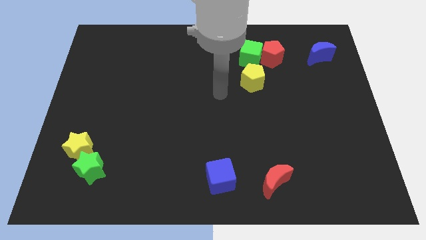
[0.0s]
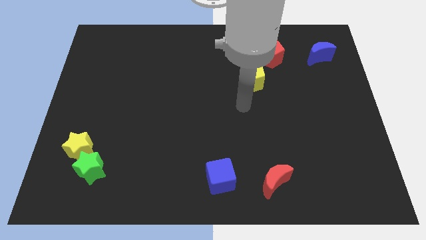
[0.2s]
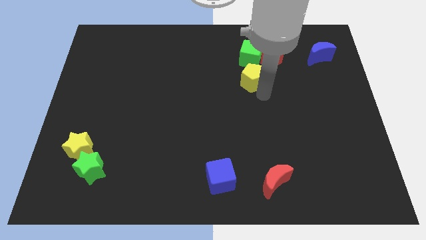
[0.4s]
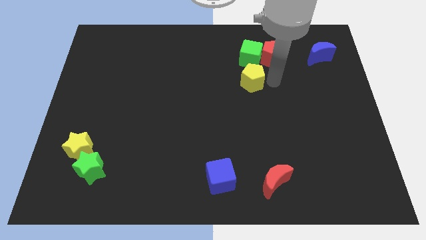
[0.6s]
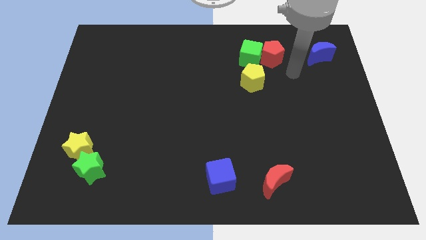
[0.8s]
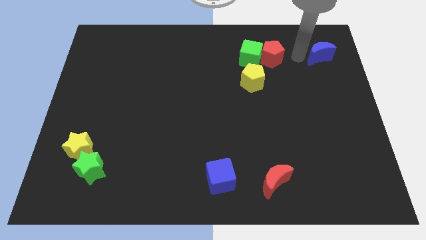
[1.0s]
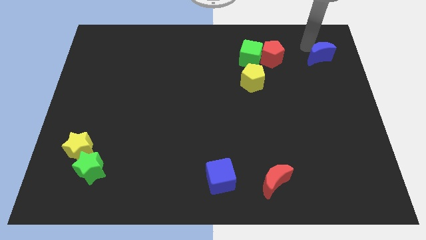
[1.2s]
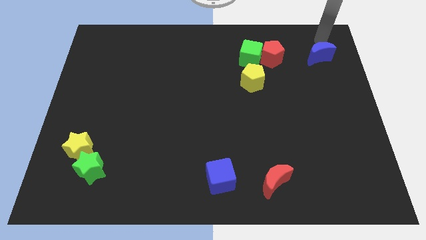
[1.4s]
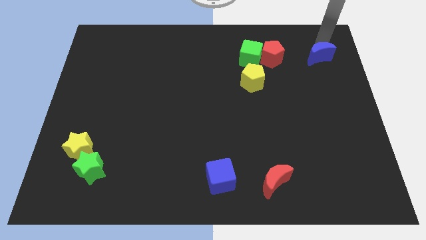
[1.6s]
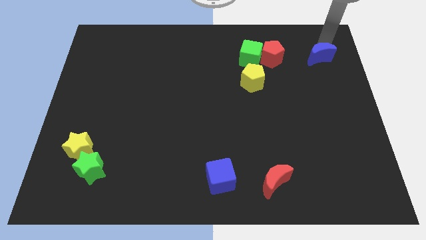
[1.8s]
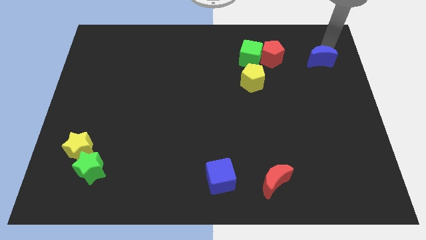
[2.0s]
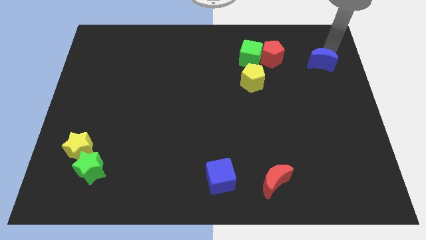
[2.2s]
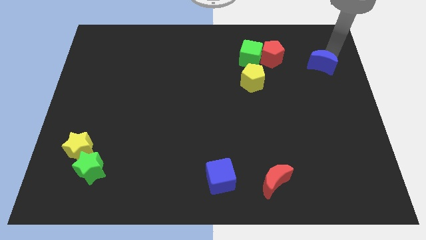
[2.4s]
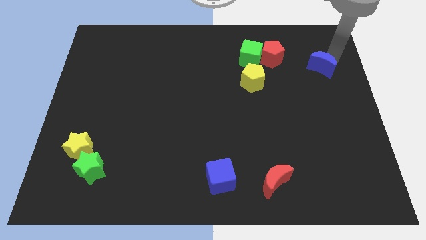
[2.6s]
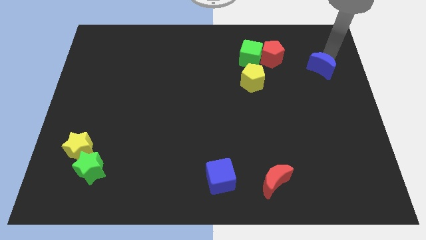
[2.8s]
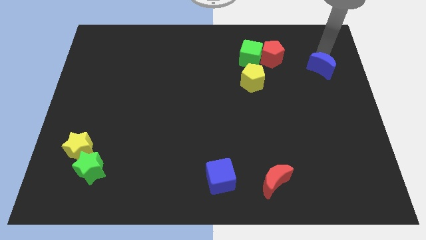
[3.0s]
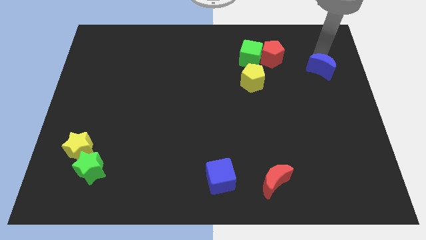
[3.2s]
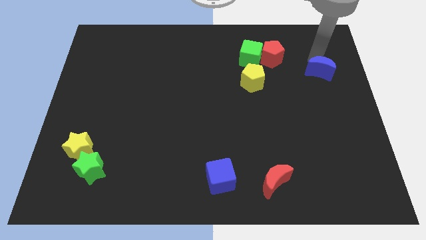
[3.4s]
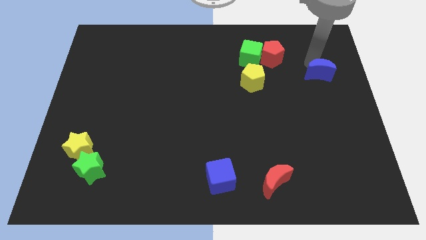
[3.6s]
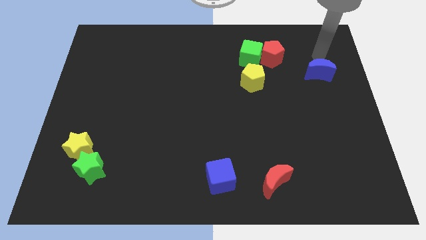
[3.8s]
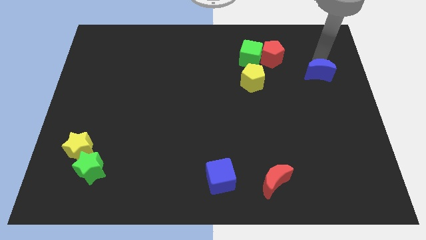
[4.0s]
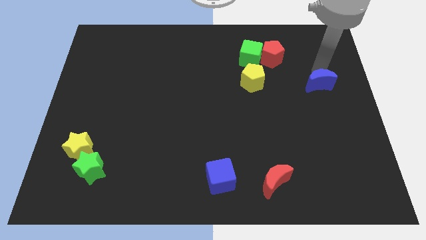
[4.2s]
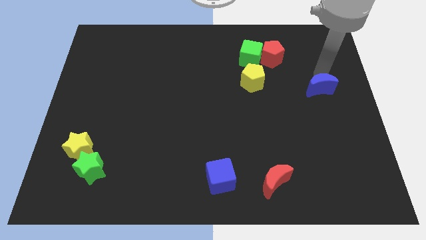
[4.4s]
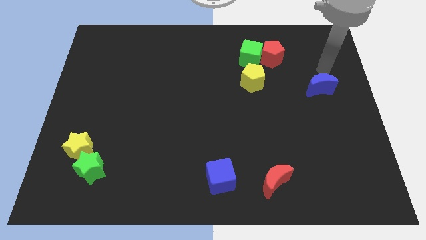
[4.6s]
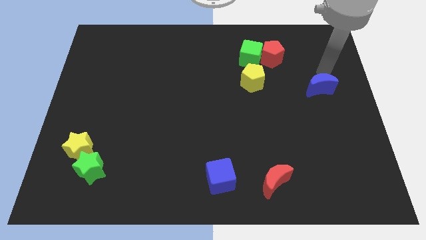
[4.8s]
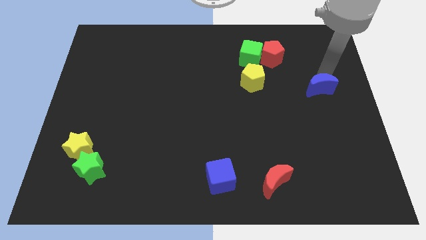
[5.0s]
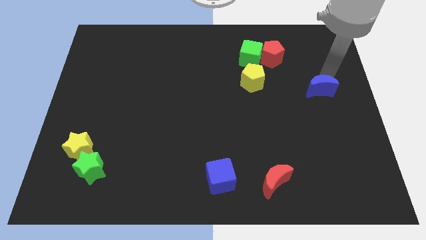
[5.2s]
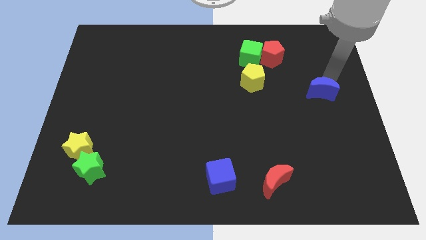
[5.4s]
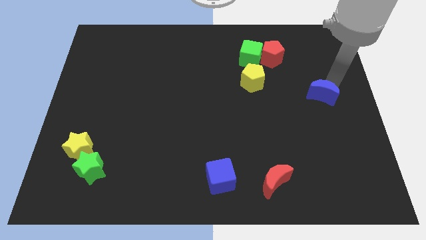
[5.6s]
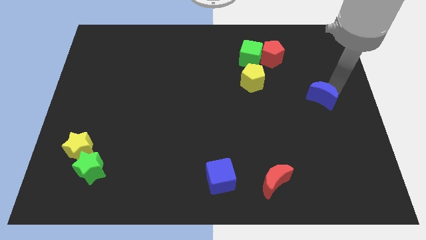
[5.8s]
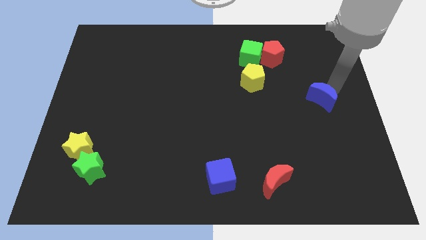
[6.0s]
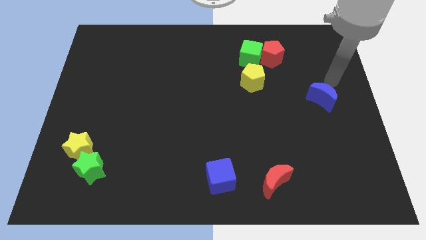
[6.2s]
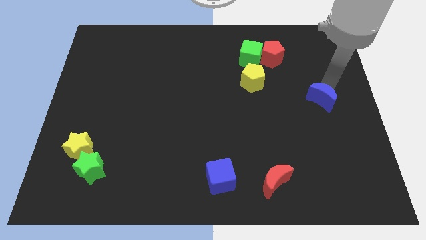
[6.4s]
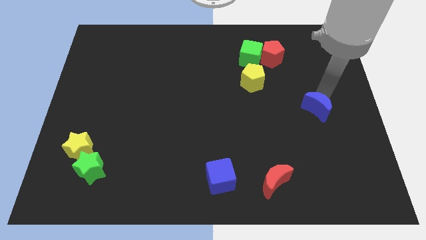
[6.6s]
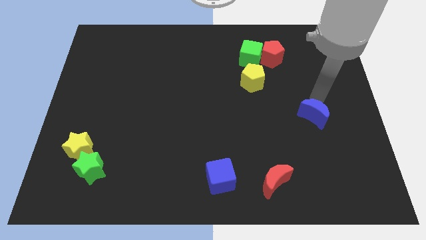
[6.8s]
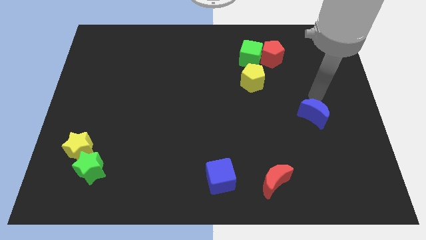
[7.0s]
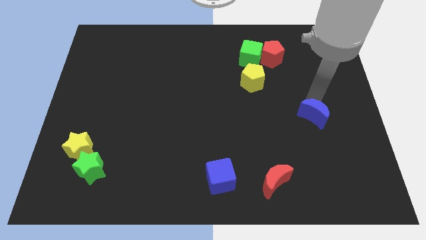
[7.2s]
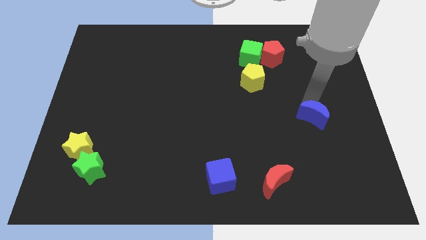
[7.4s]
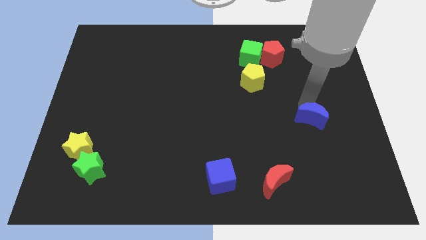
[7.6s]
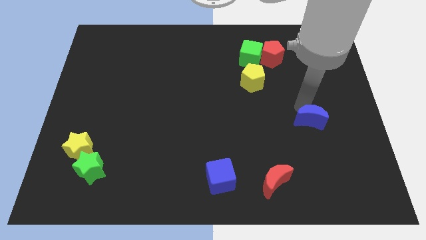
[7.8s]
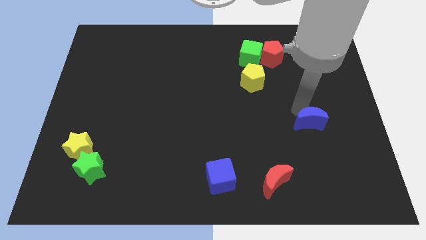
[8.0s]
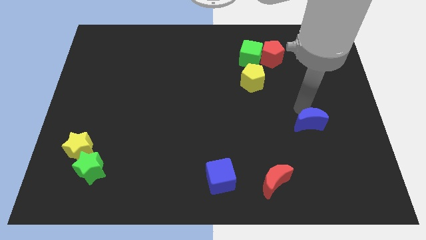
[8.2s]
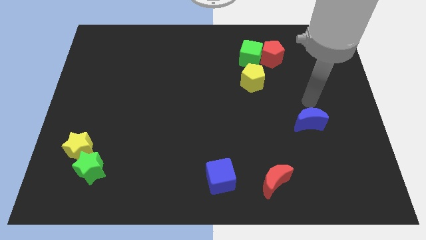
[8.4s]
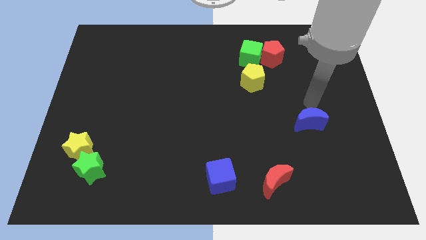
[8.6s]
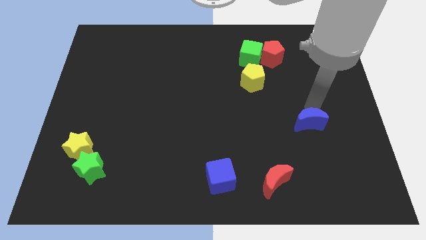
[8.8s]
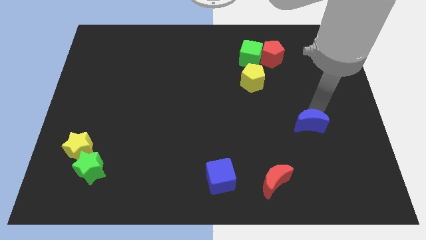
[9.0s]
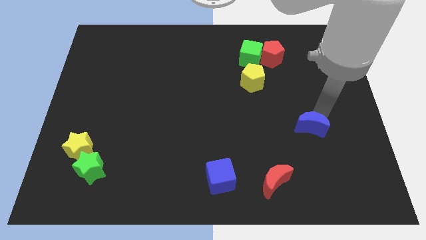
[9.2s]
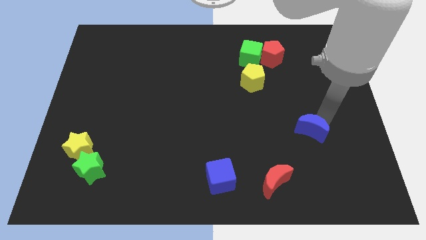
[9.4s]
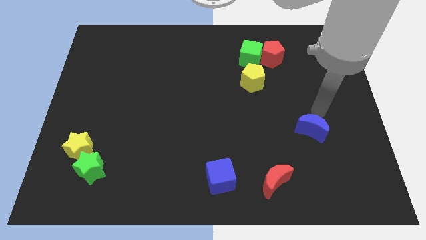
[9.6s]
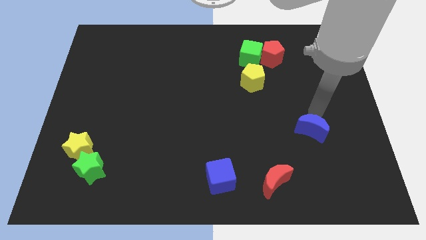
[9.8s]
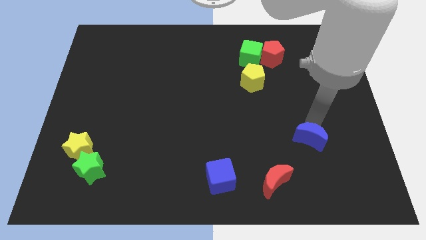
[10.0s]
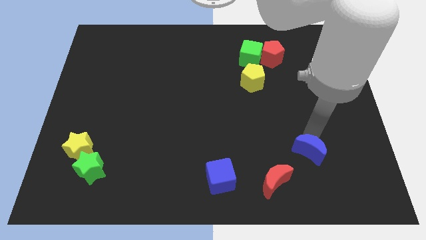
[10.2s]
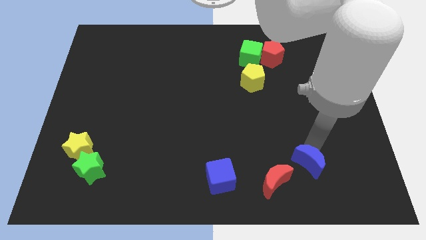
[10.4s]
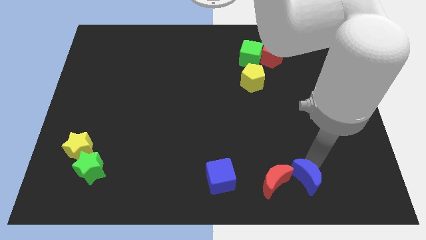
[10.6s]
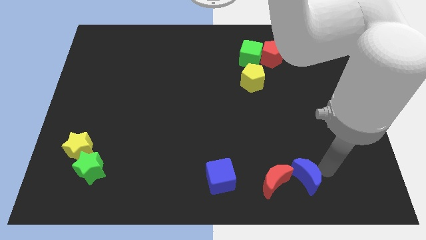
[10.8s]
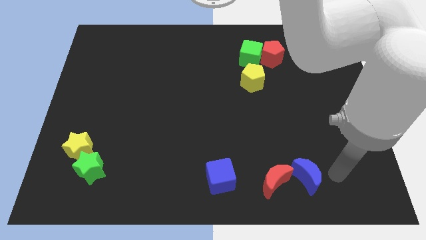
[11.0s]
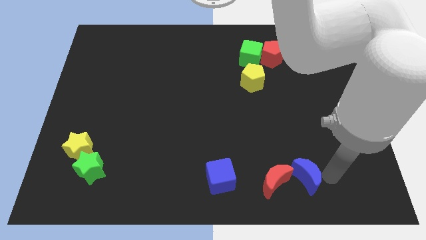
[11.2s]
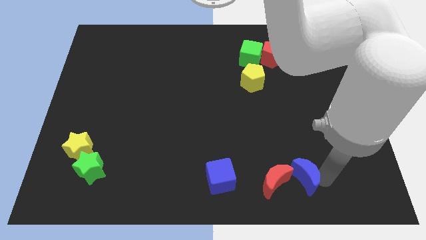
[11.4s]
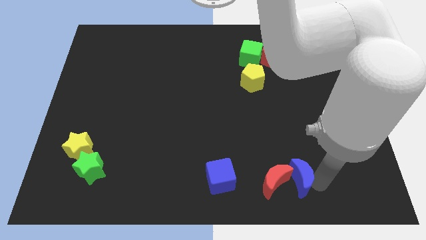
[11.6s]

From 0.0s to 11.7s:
push the blue moon right of the blue cube

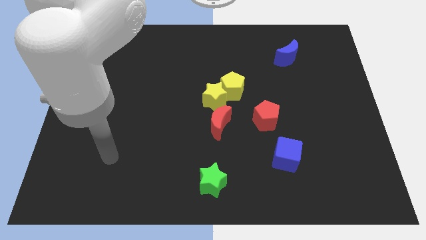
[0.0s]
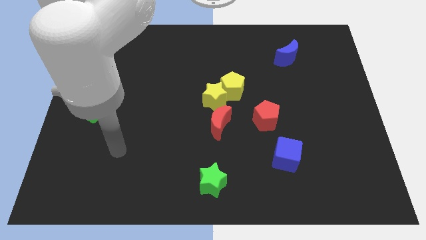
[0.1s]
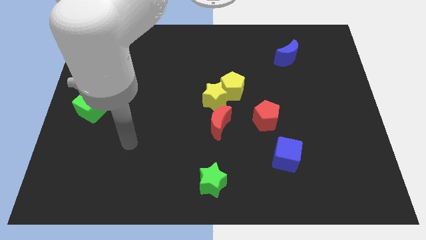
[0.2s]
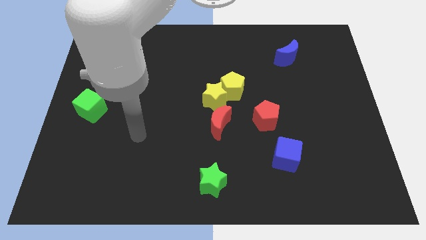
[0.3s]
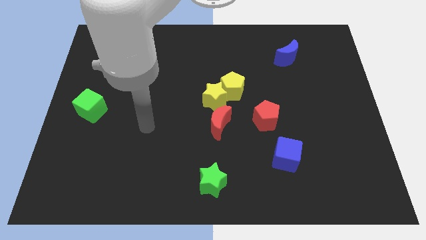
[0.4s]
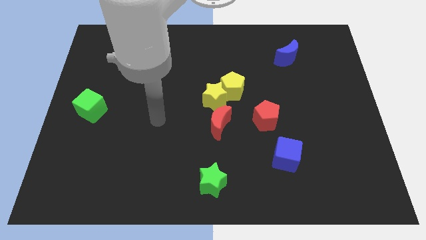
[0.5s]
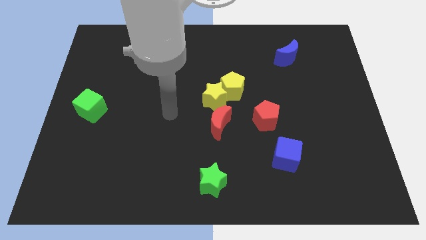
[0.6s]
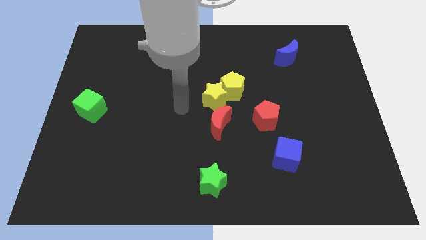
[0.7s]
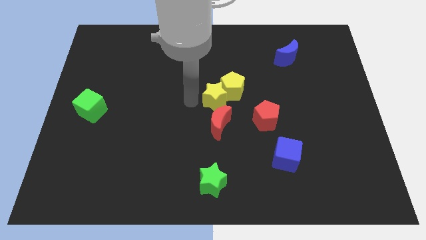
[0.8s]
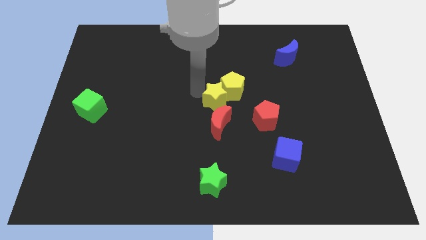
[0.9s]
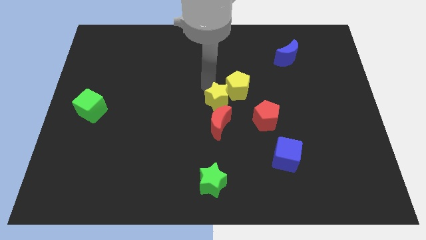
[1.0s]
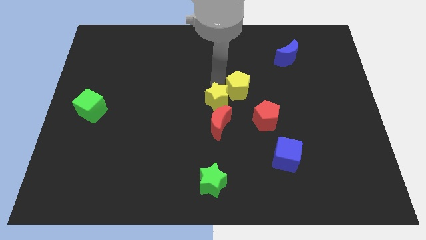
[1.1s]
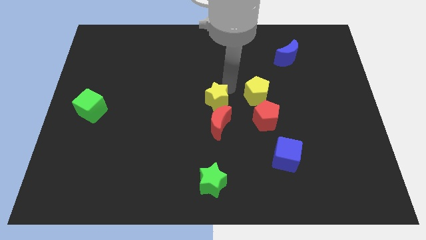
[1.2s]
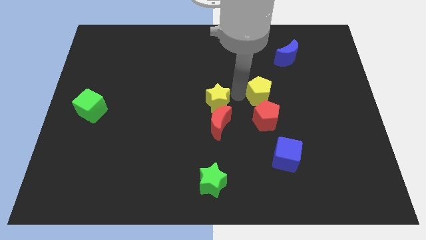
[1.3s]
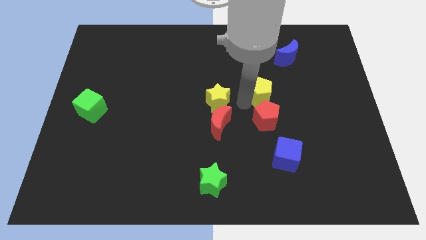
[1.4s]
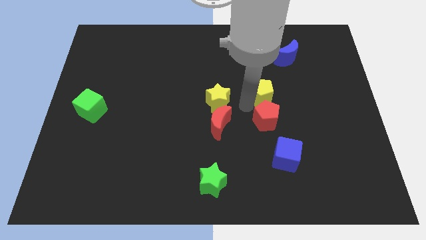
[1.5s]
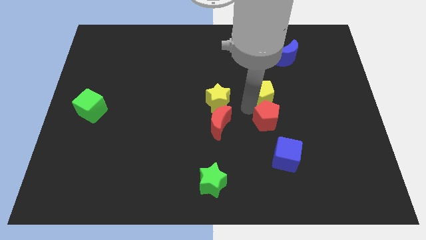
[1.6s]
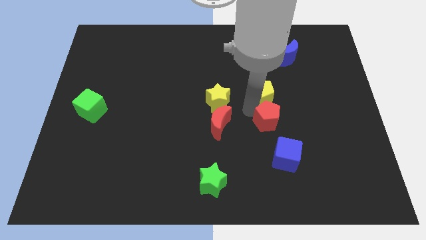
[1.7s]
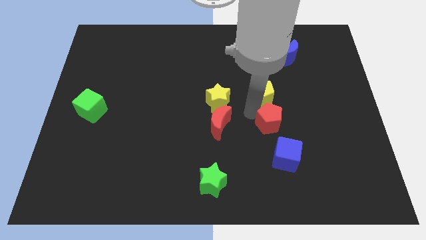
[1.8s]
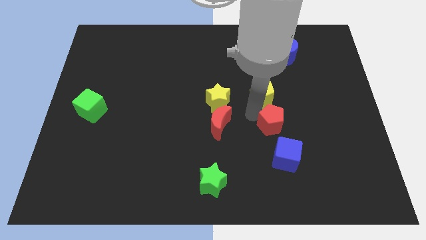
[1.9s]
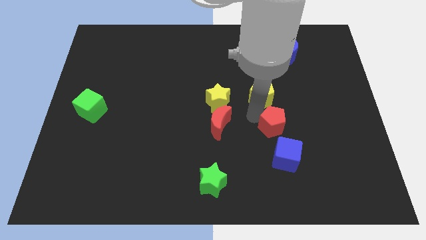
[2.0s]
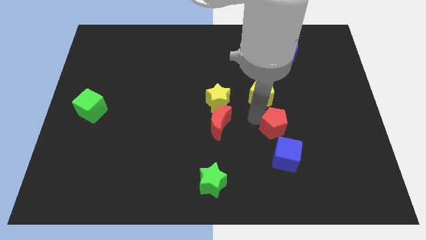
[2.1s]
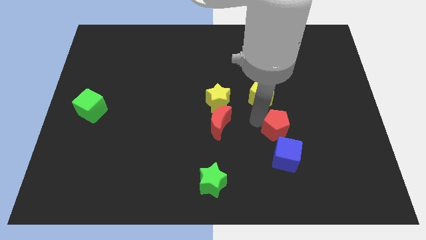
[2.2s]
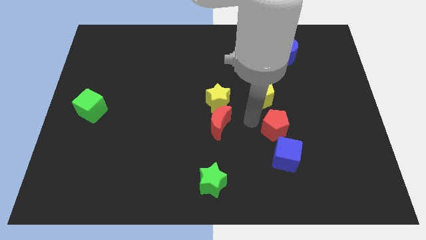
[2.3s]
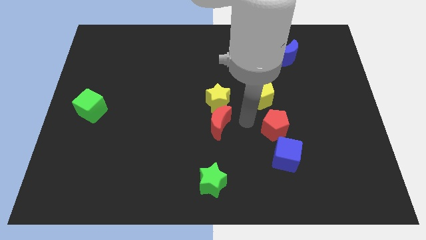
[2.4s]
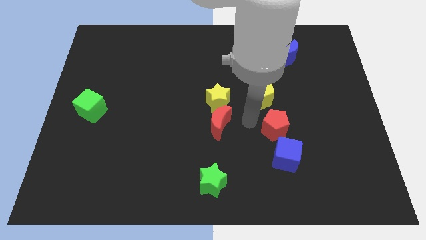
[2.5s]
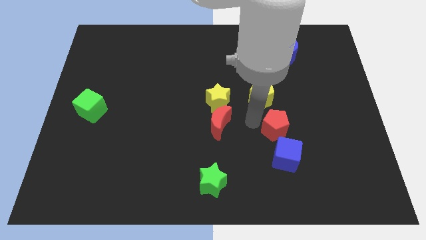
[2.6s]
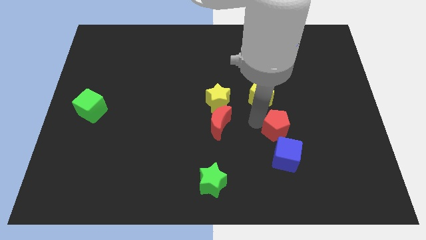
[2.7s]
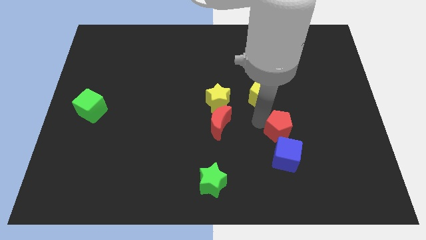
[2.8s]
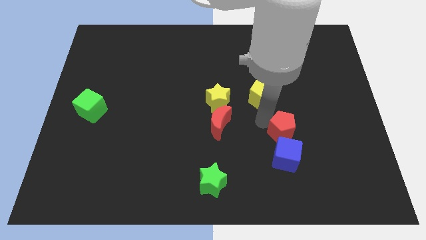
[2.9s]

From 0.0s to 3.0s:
slide the red pentagon diagonally up and to the right of the blue cube
